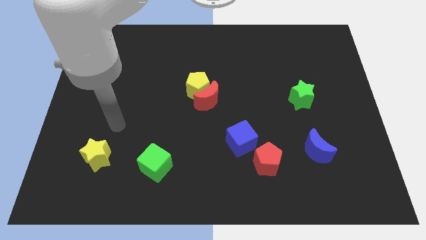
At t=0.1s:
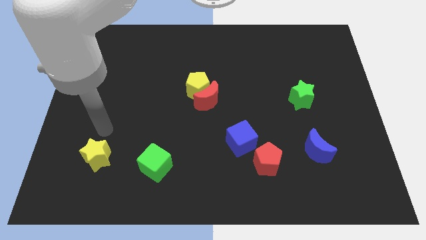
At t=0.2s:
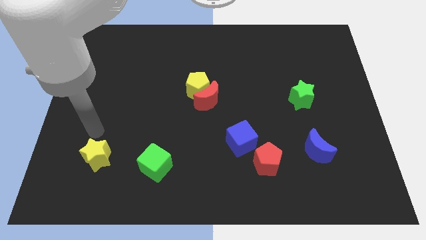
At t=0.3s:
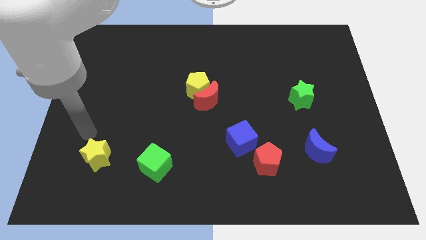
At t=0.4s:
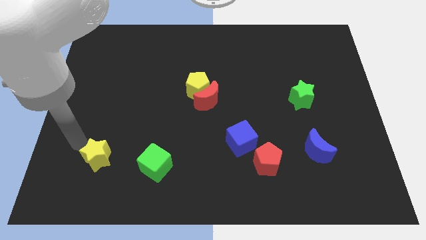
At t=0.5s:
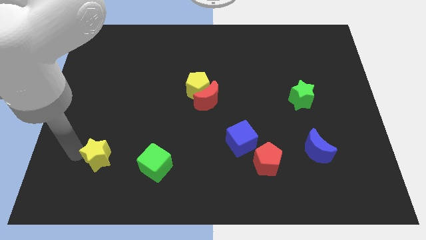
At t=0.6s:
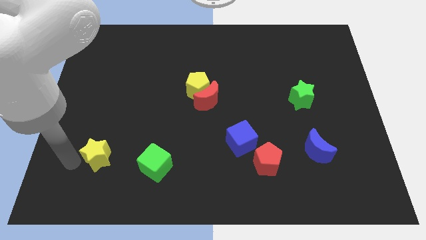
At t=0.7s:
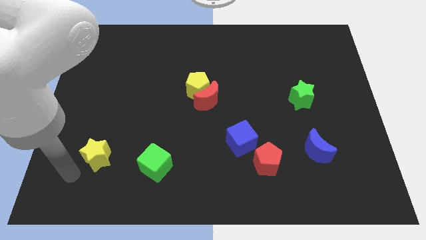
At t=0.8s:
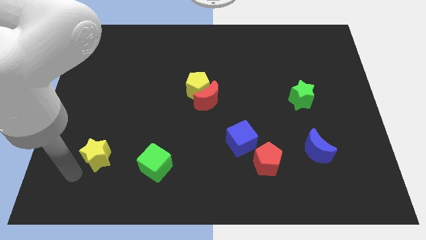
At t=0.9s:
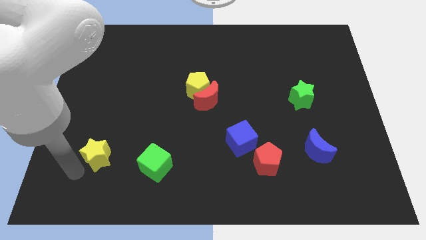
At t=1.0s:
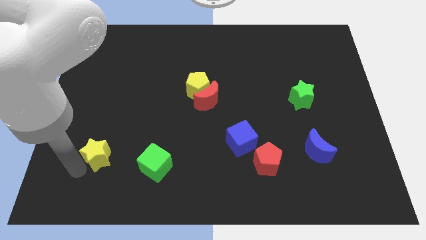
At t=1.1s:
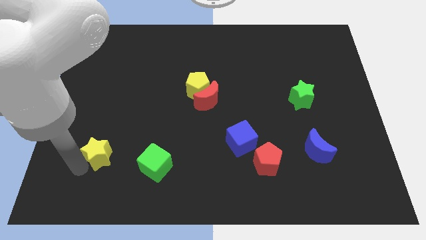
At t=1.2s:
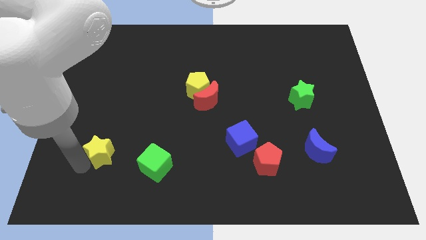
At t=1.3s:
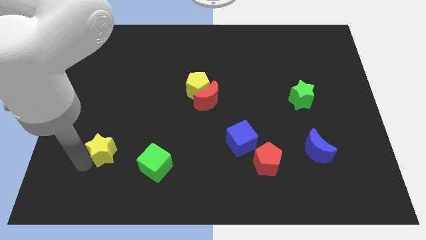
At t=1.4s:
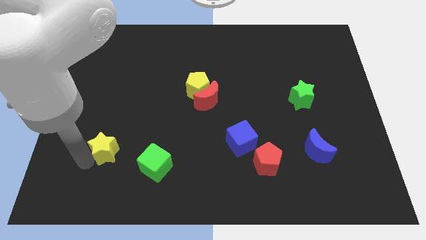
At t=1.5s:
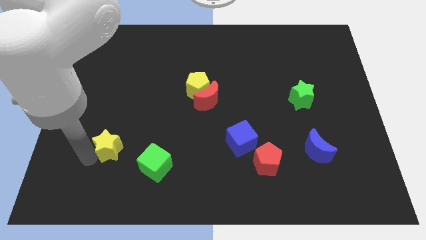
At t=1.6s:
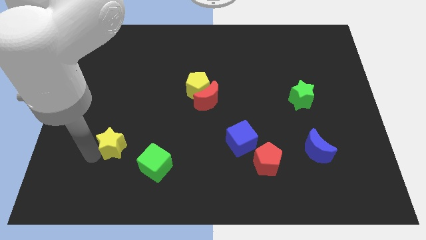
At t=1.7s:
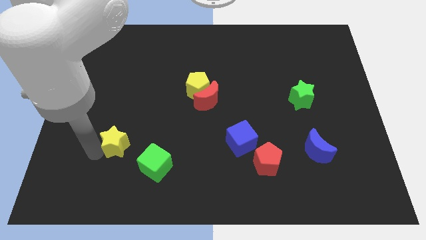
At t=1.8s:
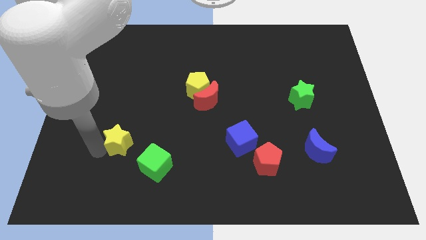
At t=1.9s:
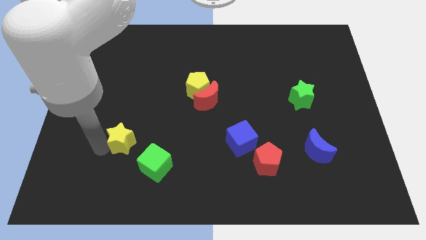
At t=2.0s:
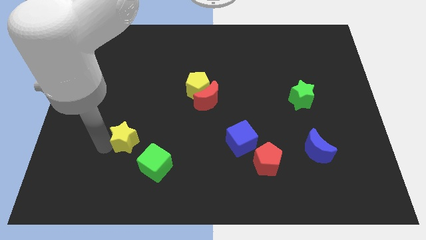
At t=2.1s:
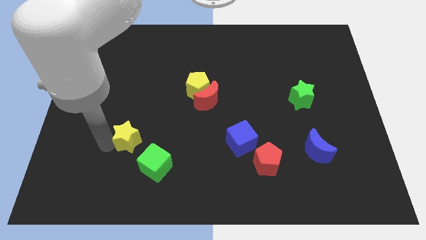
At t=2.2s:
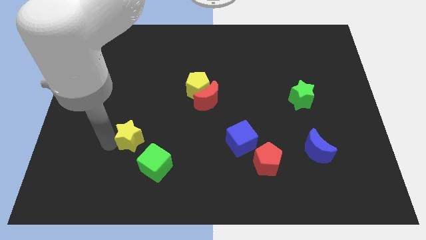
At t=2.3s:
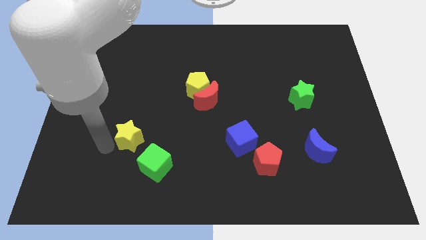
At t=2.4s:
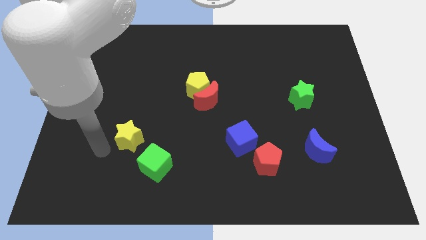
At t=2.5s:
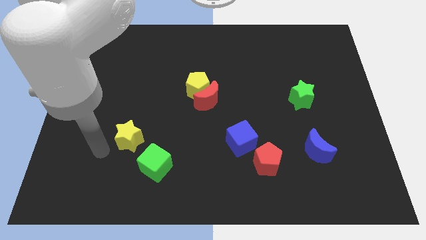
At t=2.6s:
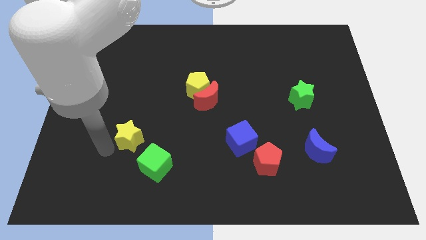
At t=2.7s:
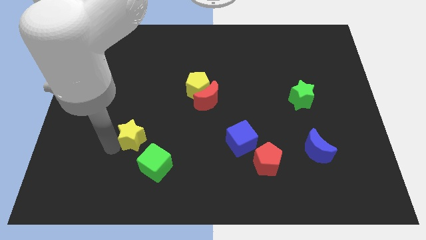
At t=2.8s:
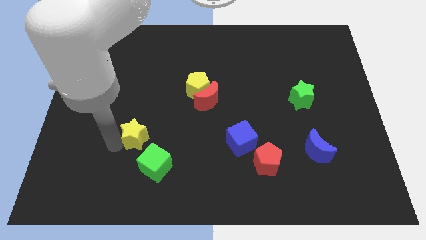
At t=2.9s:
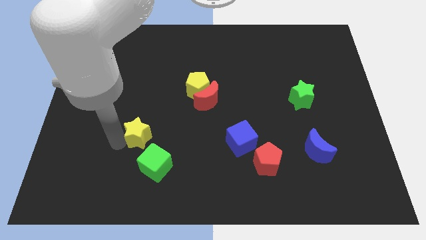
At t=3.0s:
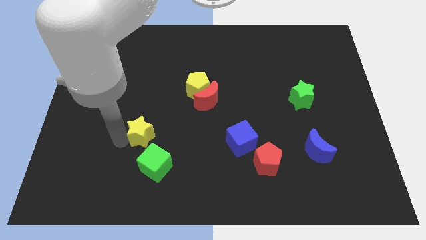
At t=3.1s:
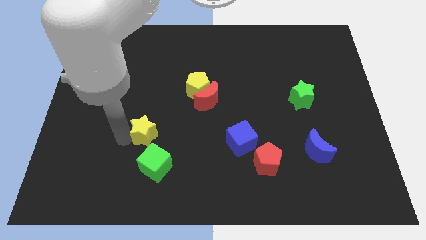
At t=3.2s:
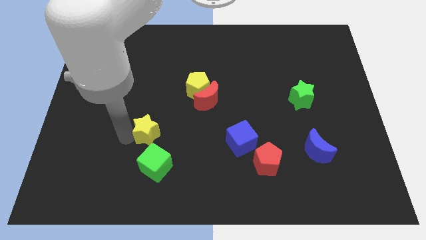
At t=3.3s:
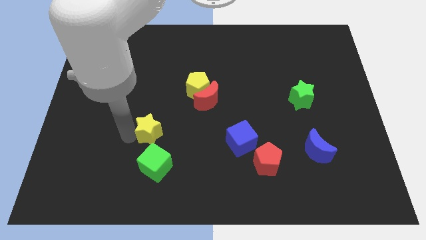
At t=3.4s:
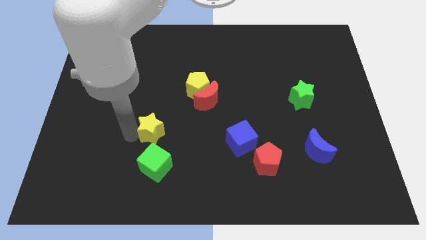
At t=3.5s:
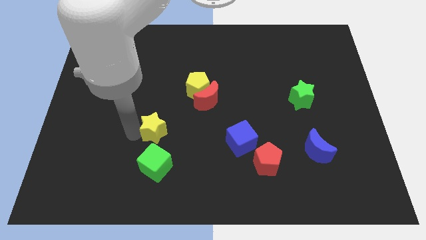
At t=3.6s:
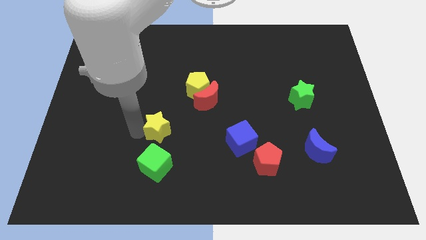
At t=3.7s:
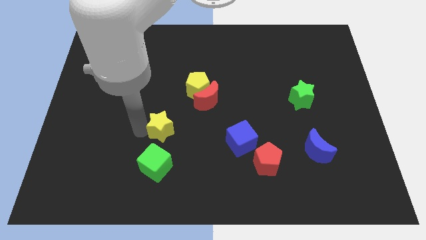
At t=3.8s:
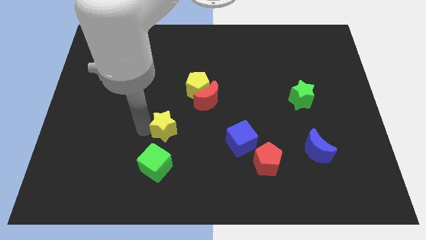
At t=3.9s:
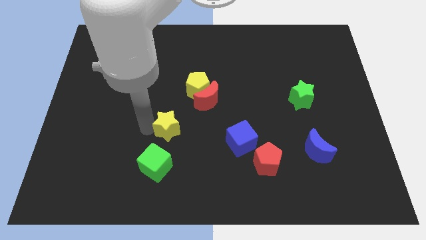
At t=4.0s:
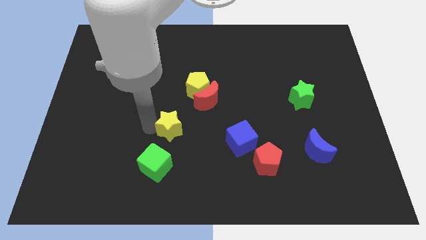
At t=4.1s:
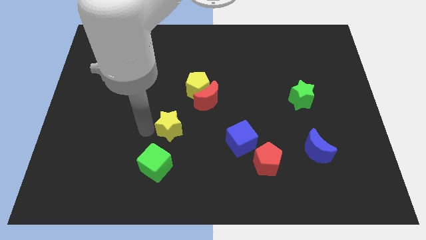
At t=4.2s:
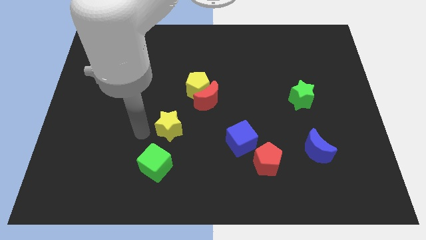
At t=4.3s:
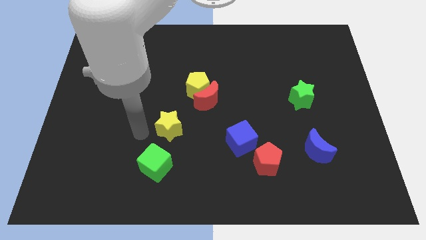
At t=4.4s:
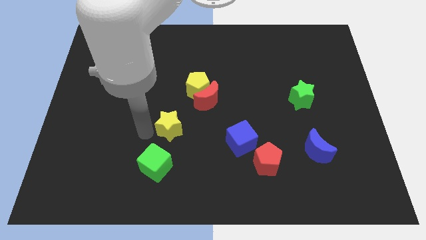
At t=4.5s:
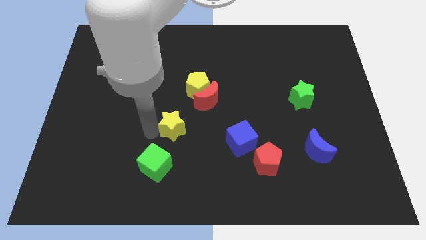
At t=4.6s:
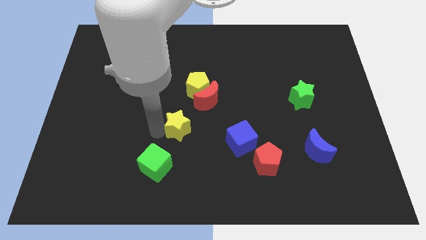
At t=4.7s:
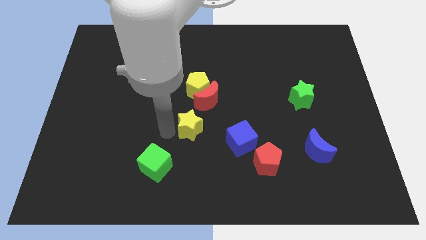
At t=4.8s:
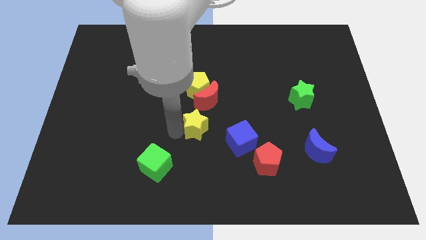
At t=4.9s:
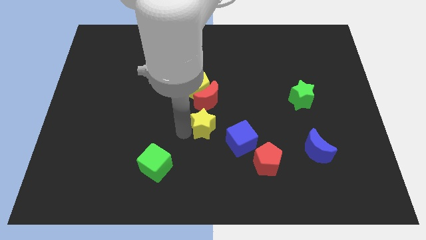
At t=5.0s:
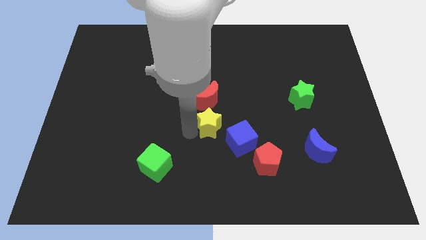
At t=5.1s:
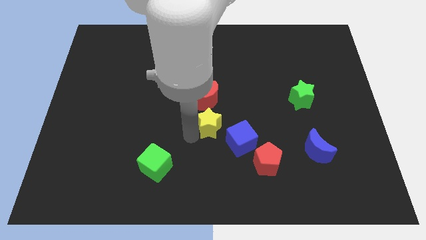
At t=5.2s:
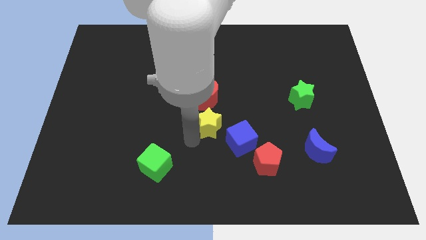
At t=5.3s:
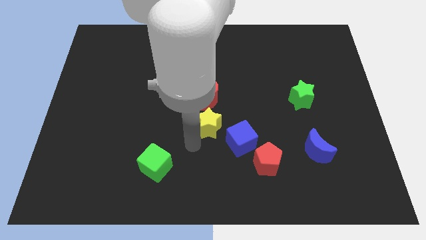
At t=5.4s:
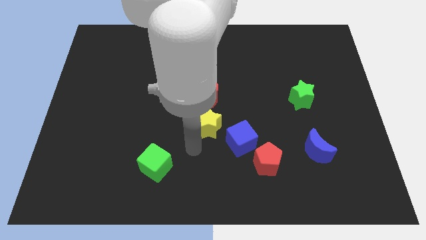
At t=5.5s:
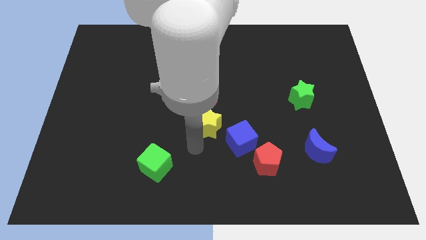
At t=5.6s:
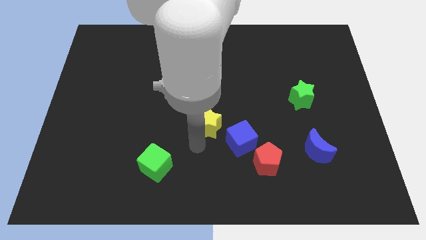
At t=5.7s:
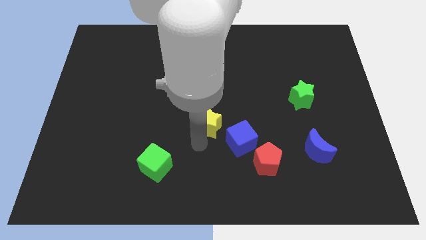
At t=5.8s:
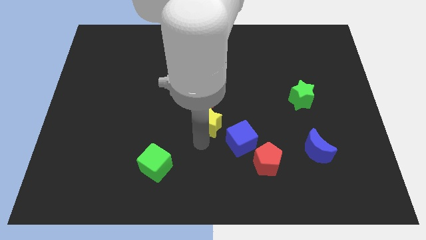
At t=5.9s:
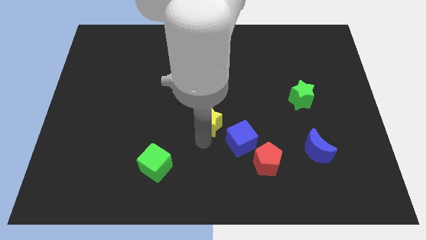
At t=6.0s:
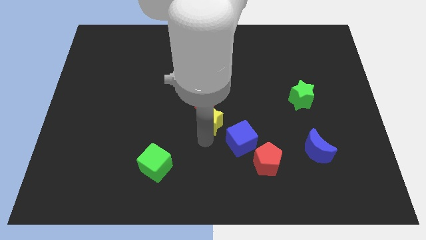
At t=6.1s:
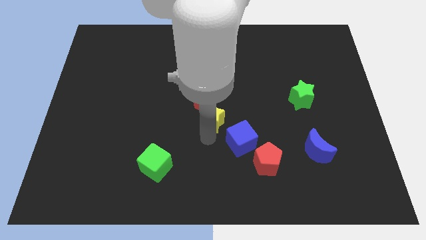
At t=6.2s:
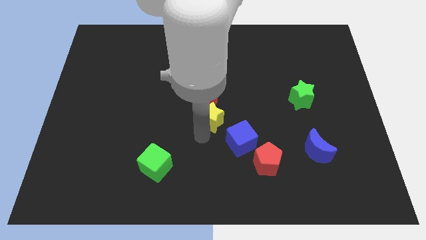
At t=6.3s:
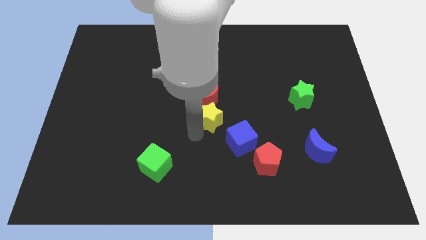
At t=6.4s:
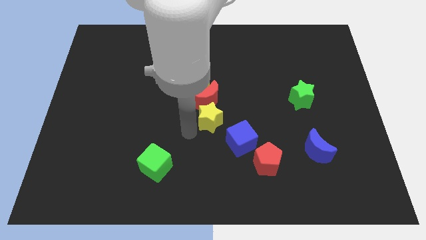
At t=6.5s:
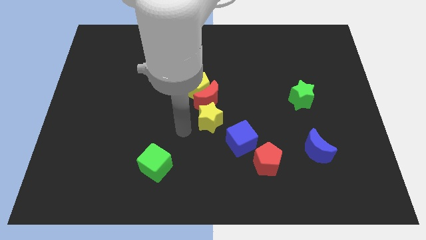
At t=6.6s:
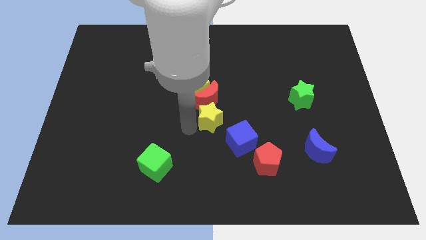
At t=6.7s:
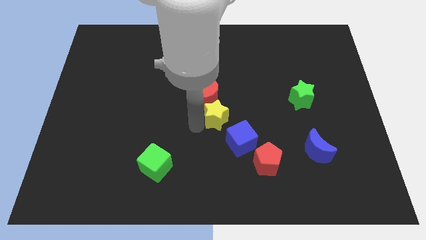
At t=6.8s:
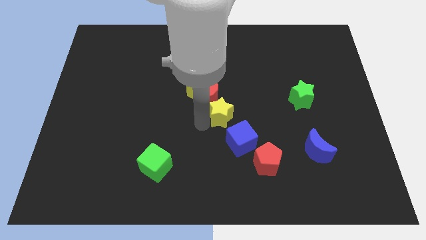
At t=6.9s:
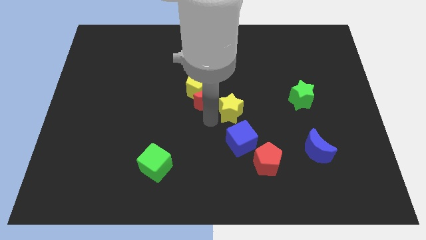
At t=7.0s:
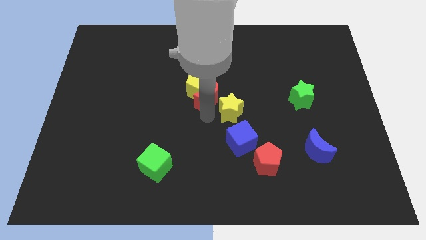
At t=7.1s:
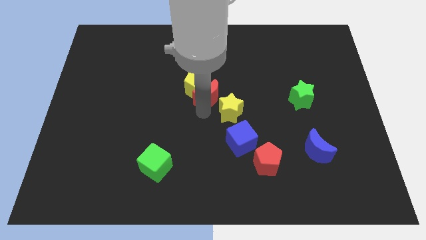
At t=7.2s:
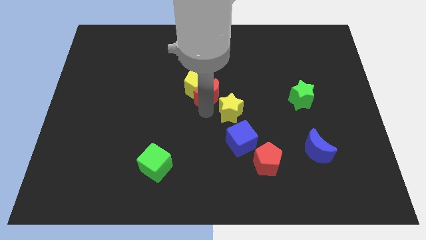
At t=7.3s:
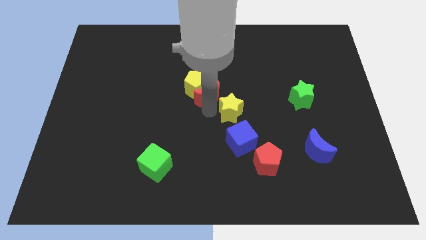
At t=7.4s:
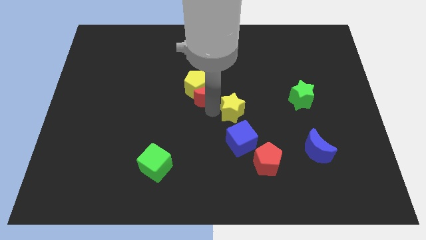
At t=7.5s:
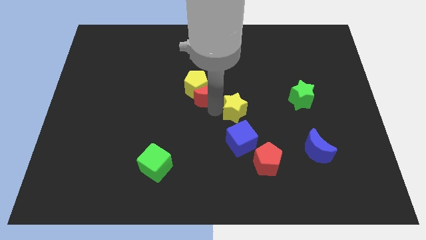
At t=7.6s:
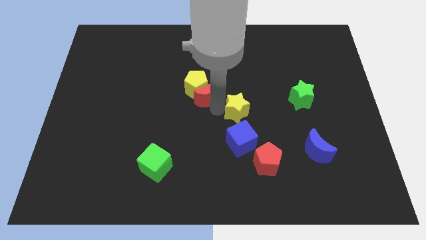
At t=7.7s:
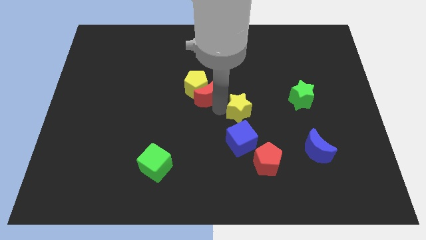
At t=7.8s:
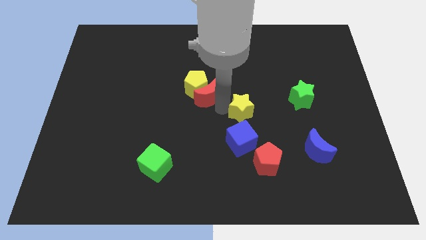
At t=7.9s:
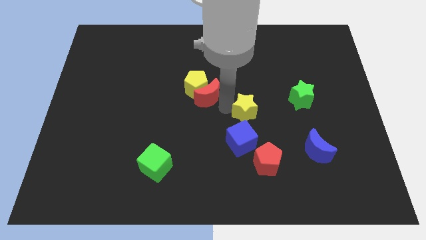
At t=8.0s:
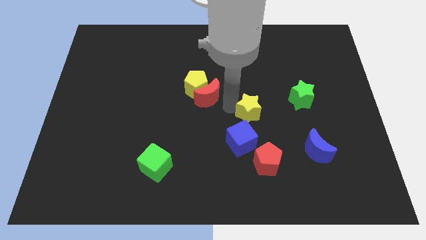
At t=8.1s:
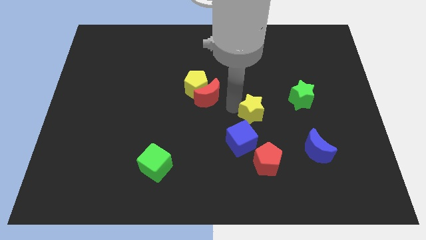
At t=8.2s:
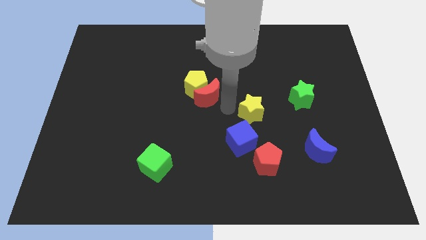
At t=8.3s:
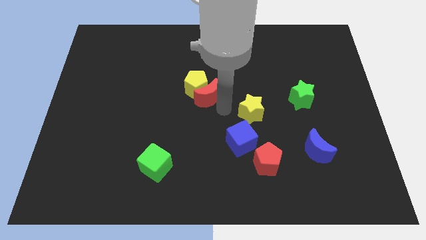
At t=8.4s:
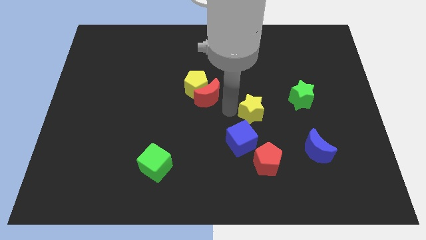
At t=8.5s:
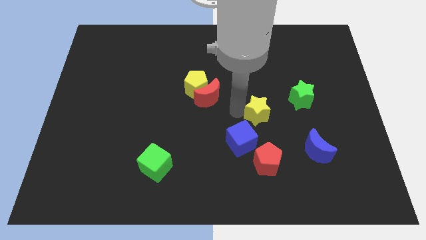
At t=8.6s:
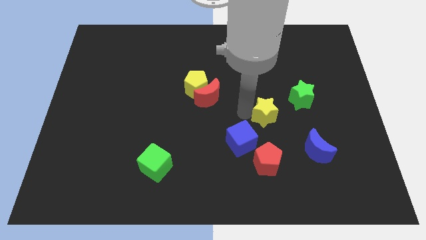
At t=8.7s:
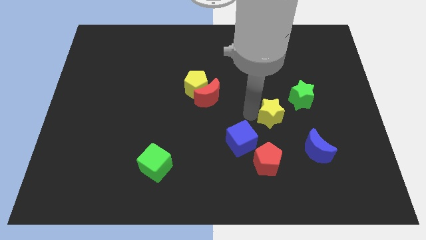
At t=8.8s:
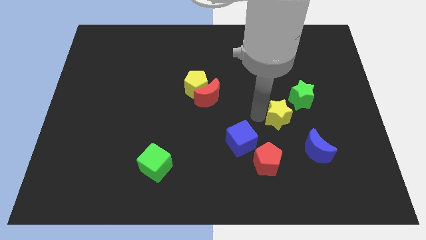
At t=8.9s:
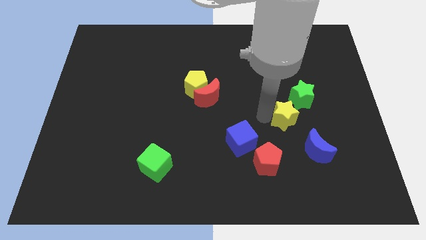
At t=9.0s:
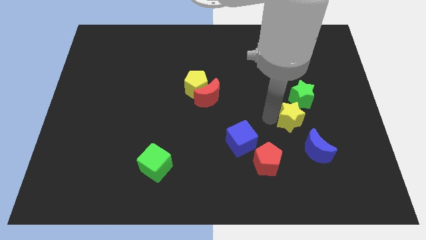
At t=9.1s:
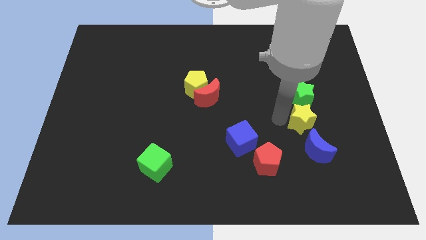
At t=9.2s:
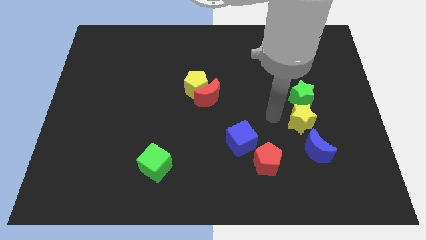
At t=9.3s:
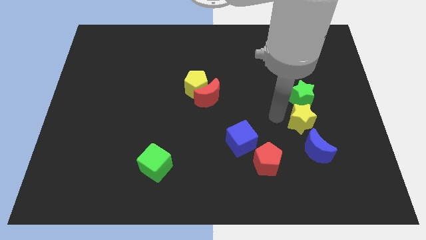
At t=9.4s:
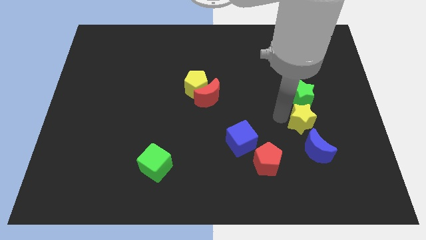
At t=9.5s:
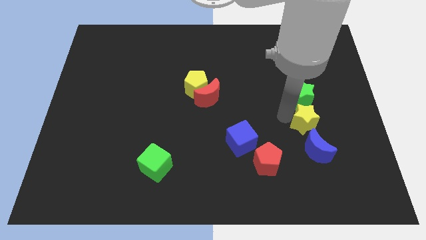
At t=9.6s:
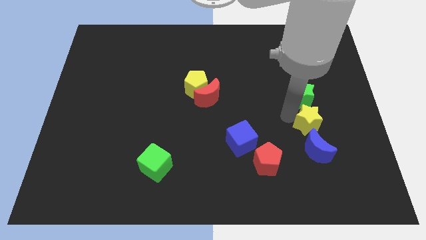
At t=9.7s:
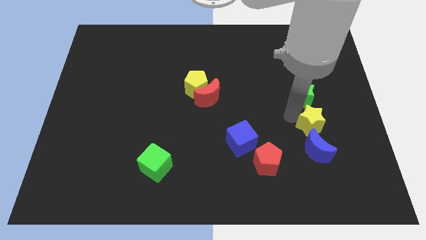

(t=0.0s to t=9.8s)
put the yellow star to the top right of the blue moon
